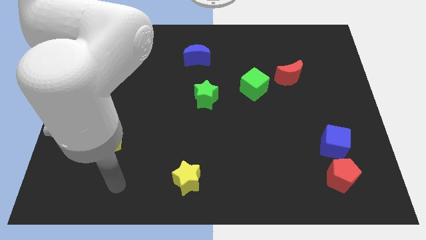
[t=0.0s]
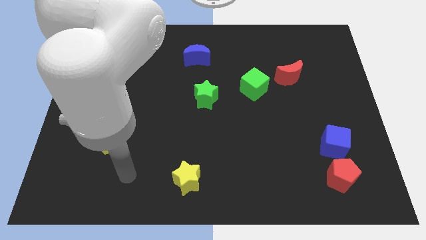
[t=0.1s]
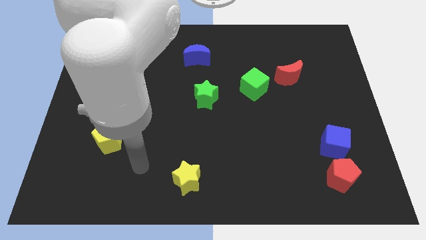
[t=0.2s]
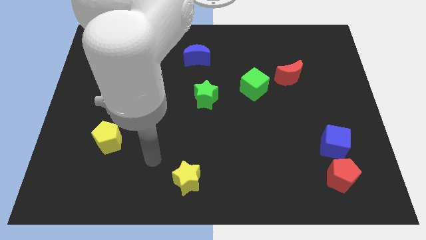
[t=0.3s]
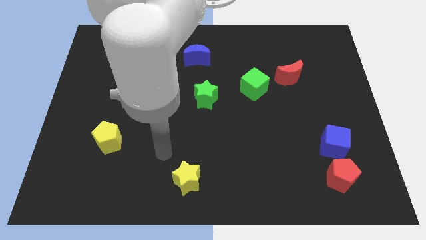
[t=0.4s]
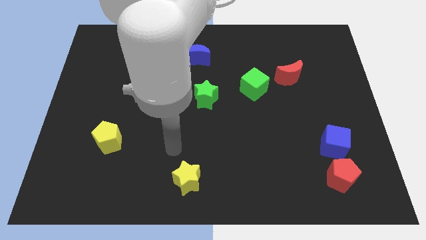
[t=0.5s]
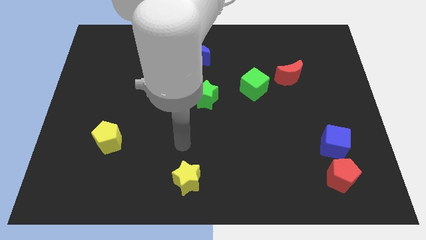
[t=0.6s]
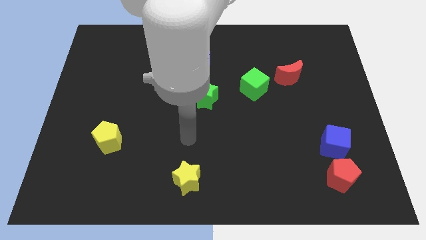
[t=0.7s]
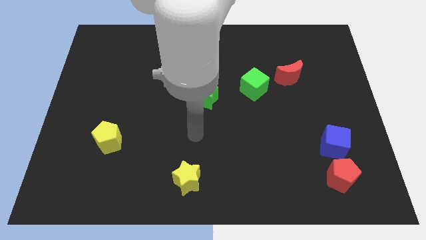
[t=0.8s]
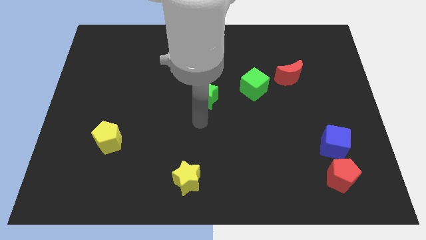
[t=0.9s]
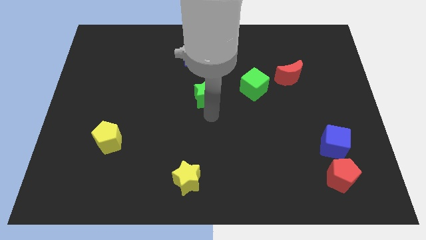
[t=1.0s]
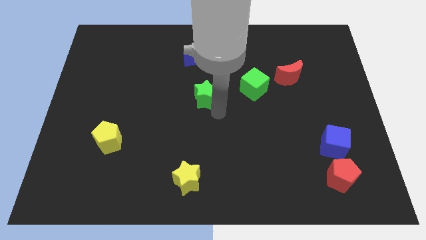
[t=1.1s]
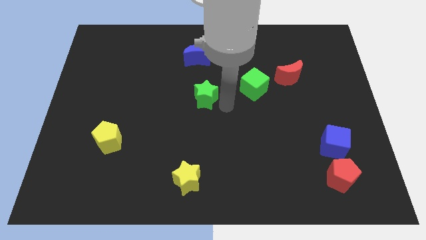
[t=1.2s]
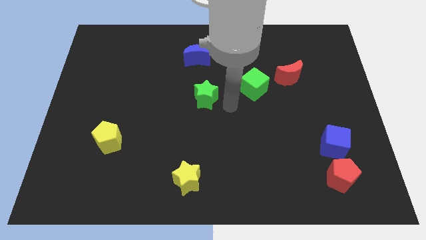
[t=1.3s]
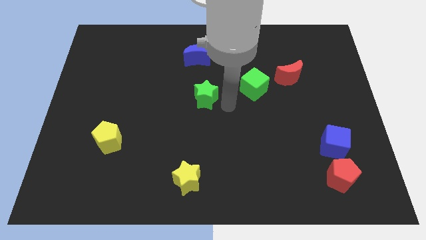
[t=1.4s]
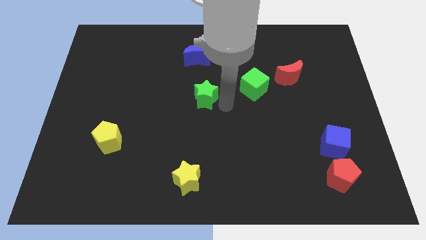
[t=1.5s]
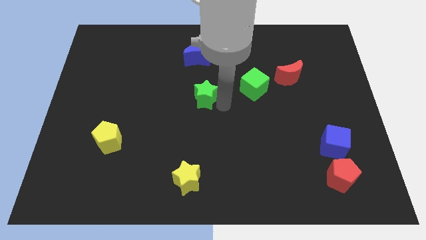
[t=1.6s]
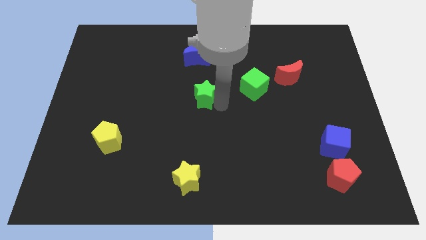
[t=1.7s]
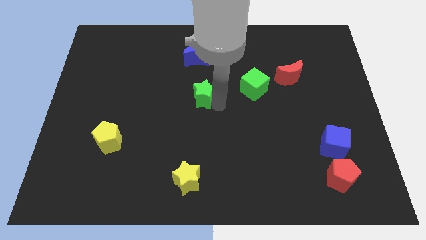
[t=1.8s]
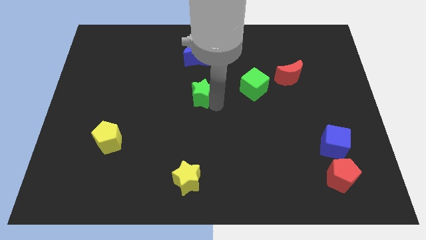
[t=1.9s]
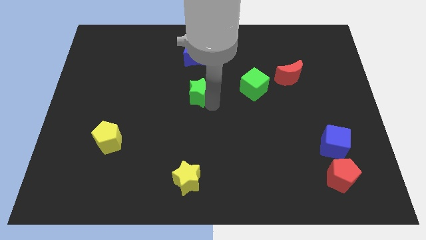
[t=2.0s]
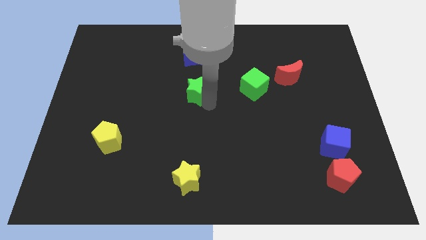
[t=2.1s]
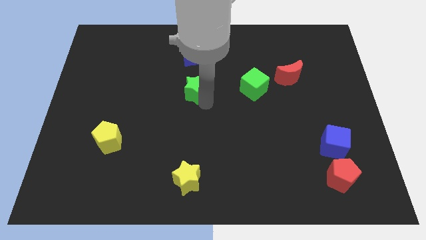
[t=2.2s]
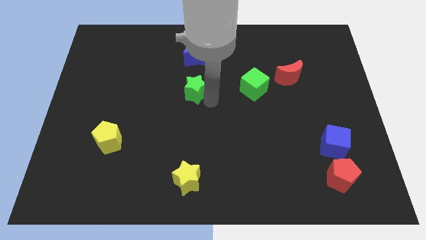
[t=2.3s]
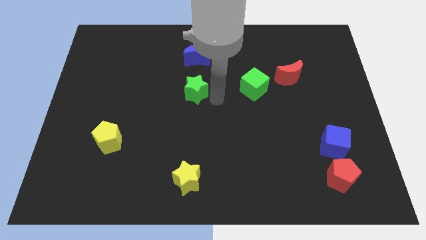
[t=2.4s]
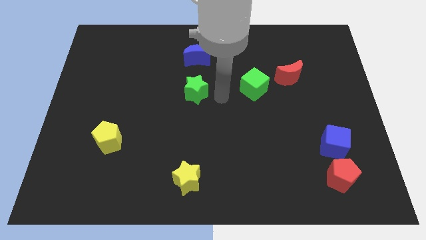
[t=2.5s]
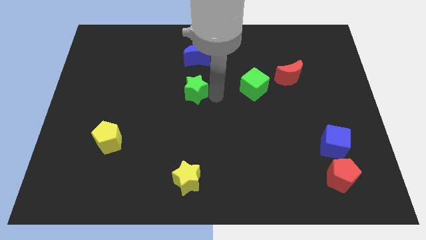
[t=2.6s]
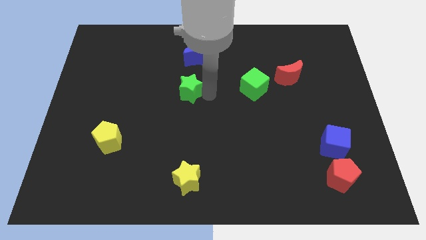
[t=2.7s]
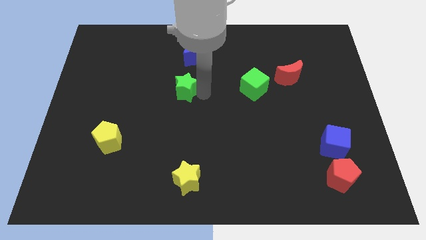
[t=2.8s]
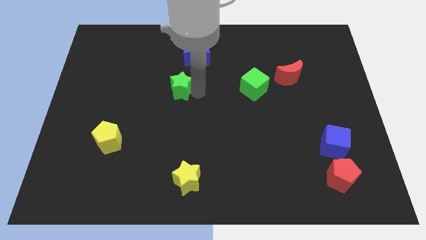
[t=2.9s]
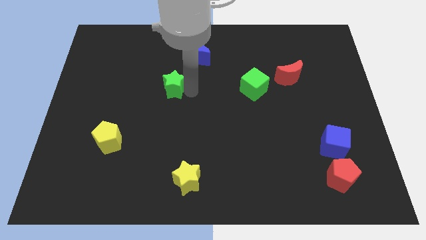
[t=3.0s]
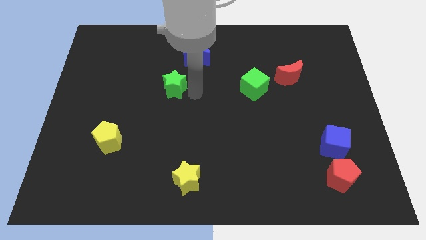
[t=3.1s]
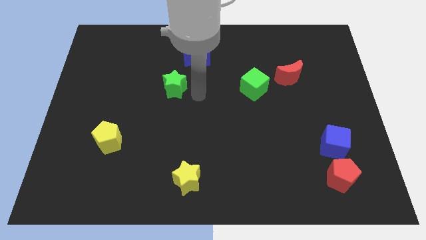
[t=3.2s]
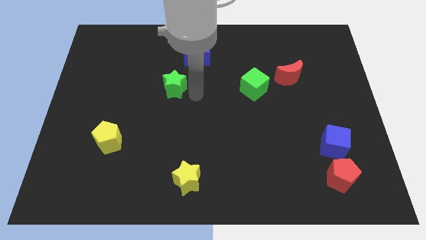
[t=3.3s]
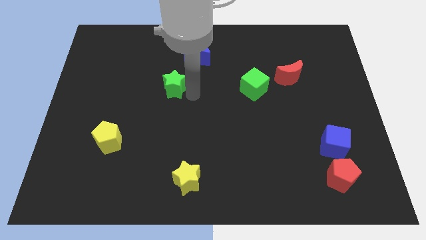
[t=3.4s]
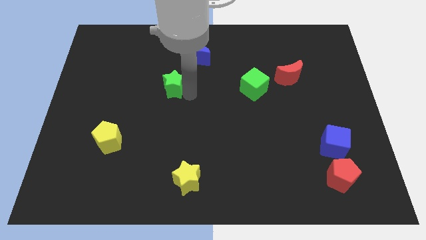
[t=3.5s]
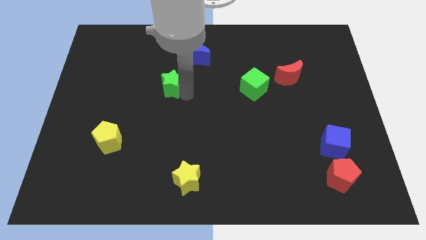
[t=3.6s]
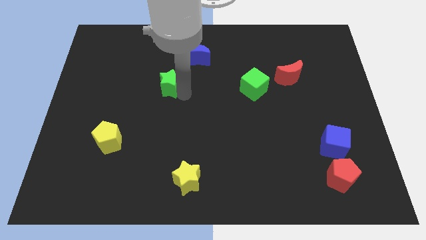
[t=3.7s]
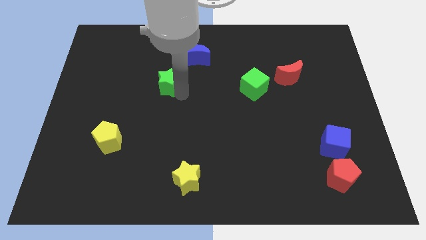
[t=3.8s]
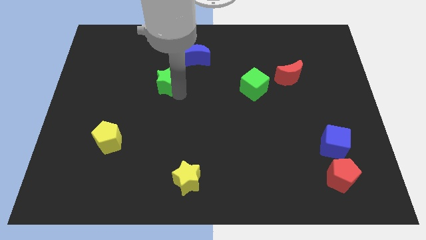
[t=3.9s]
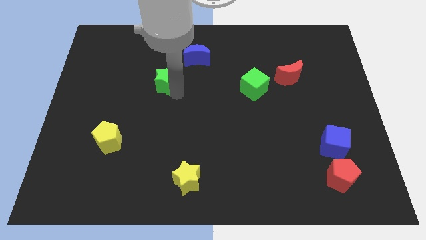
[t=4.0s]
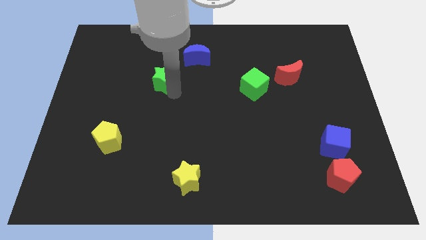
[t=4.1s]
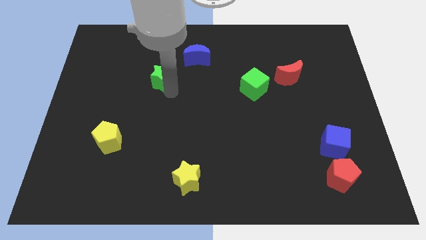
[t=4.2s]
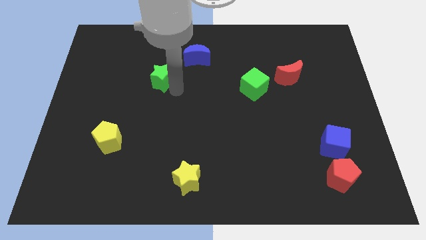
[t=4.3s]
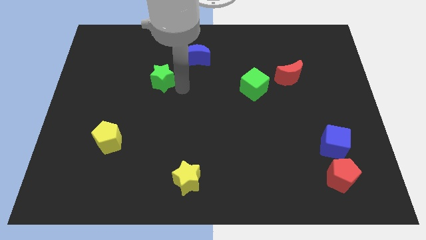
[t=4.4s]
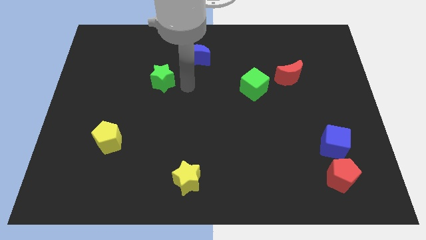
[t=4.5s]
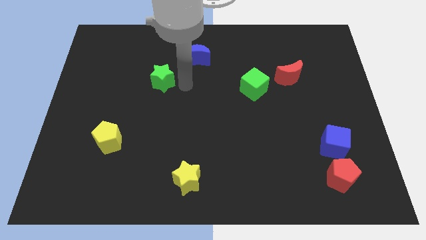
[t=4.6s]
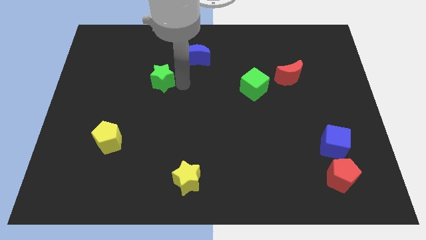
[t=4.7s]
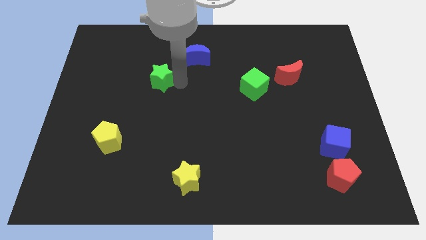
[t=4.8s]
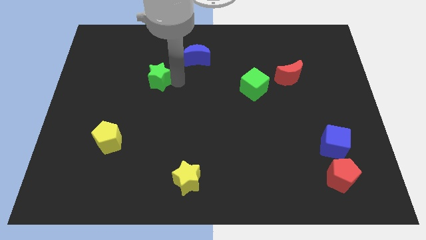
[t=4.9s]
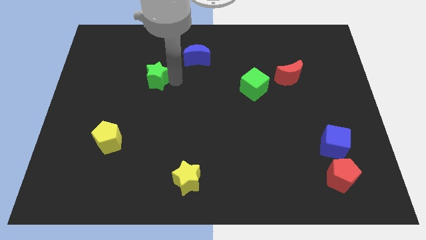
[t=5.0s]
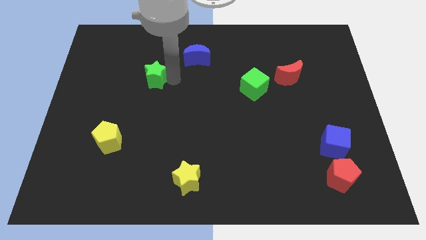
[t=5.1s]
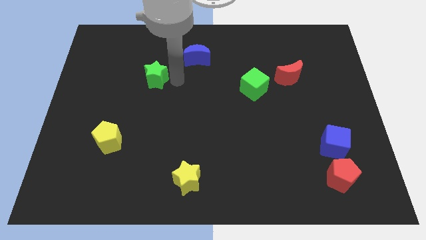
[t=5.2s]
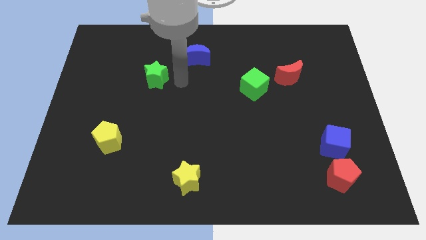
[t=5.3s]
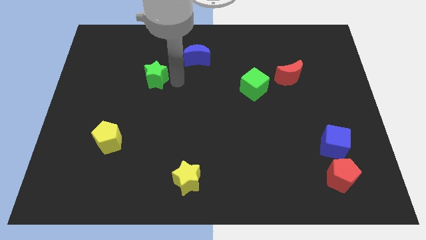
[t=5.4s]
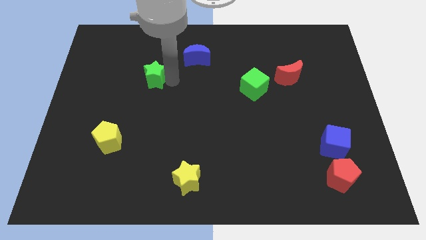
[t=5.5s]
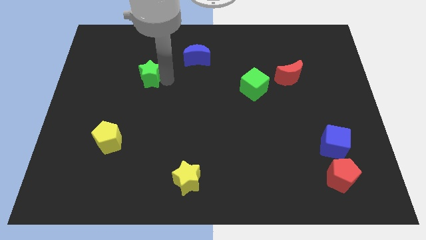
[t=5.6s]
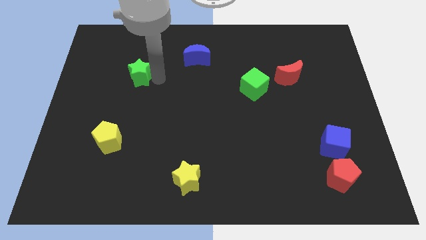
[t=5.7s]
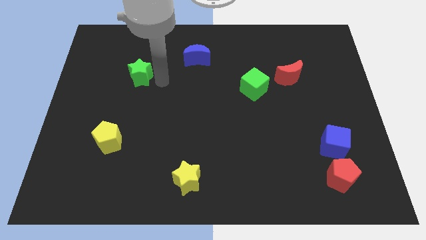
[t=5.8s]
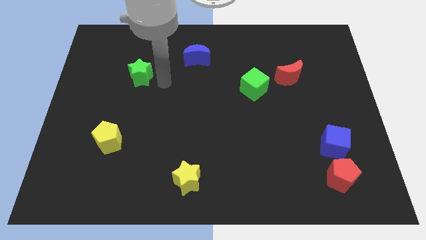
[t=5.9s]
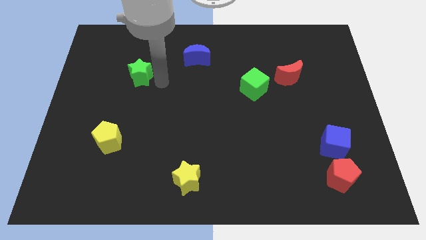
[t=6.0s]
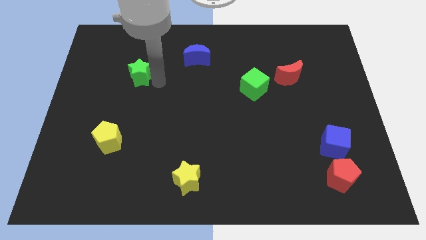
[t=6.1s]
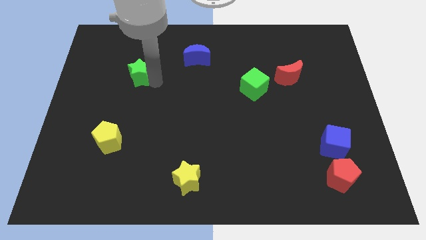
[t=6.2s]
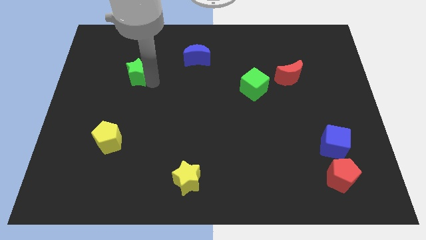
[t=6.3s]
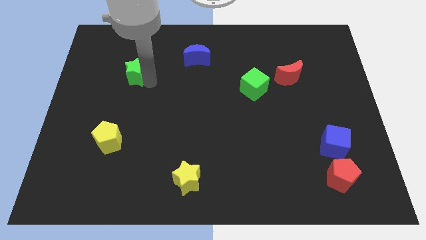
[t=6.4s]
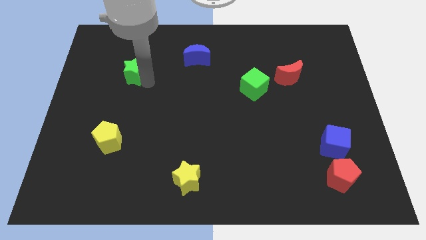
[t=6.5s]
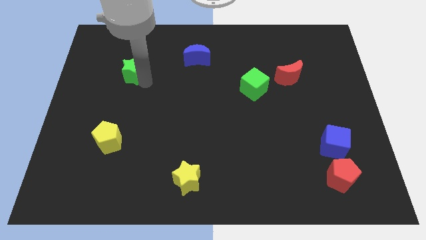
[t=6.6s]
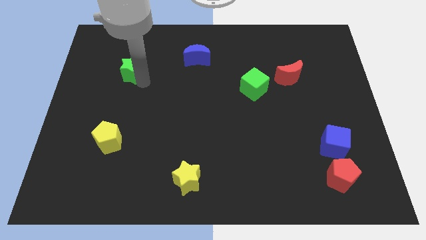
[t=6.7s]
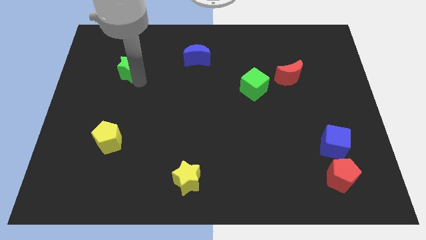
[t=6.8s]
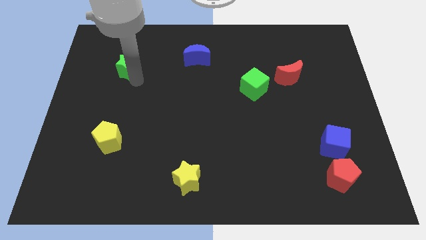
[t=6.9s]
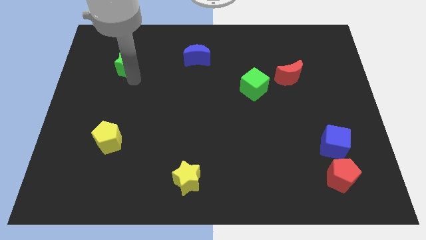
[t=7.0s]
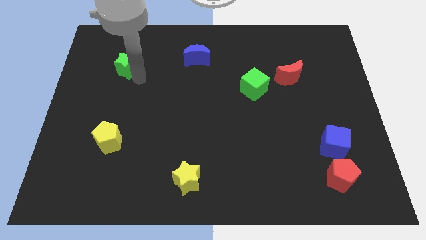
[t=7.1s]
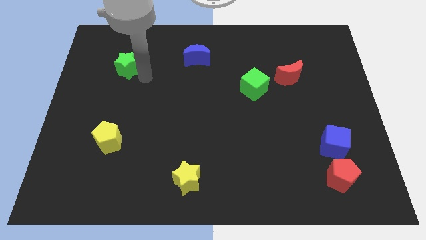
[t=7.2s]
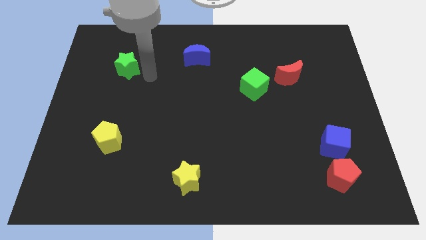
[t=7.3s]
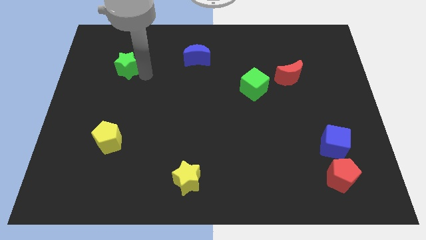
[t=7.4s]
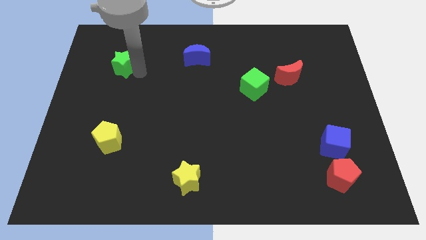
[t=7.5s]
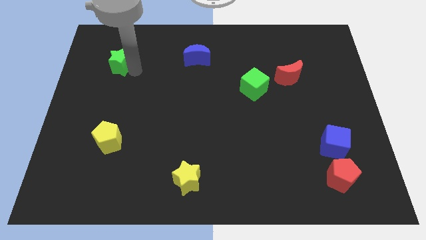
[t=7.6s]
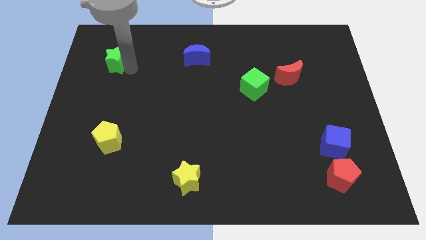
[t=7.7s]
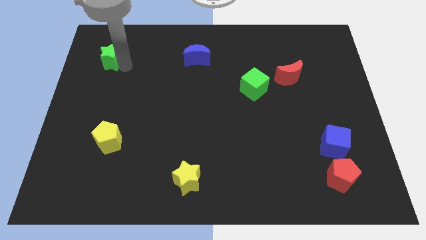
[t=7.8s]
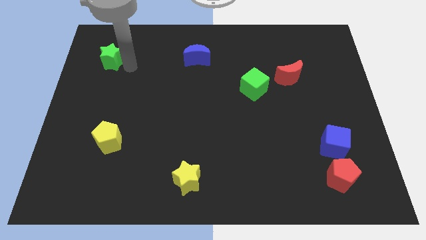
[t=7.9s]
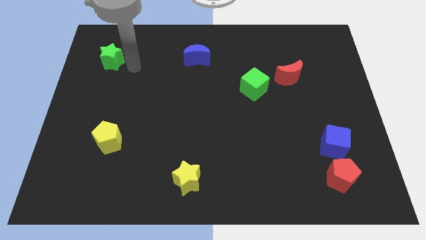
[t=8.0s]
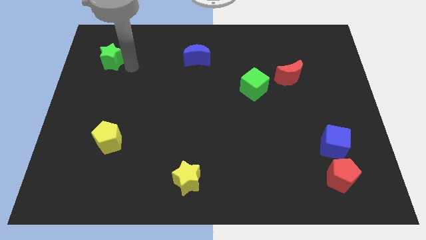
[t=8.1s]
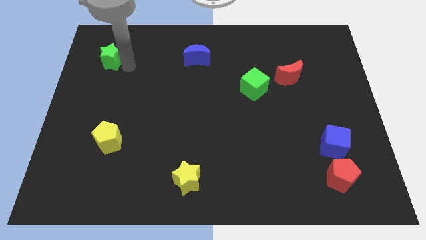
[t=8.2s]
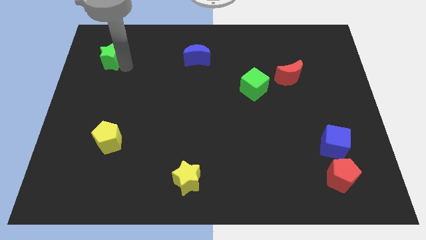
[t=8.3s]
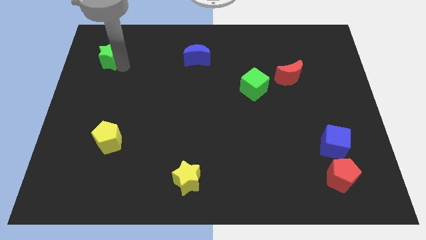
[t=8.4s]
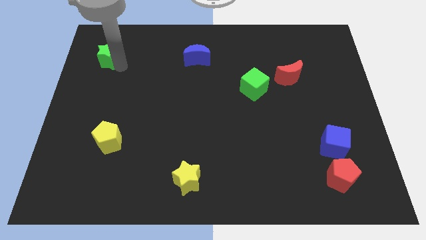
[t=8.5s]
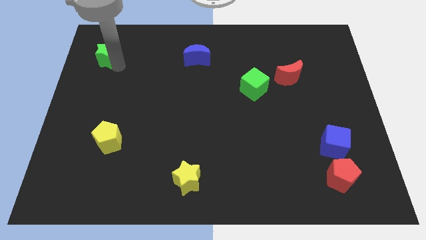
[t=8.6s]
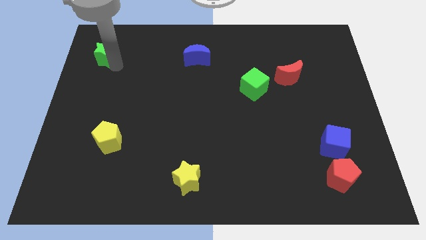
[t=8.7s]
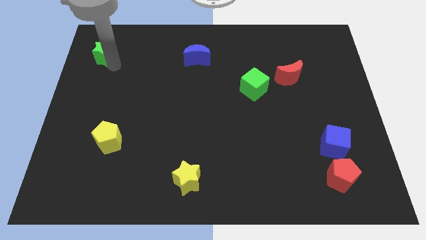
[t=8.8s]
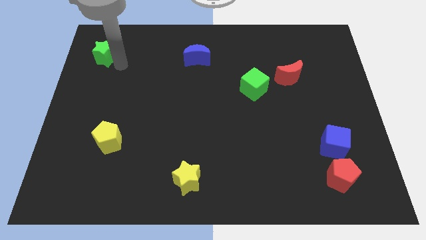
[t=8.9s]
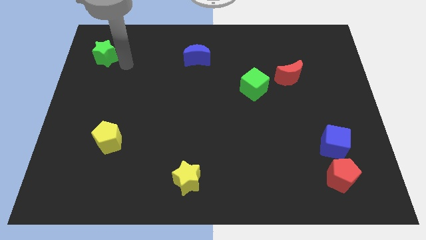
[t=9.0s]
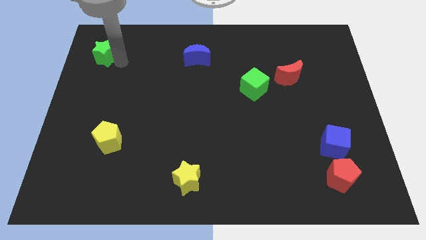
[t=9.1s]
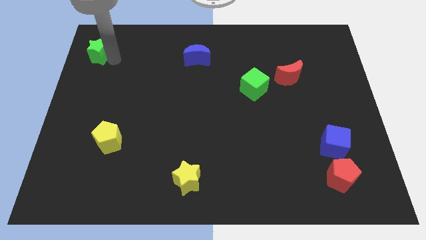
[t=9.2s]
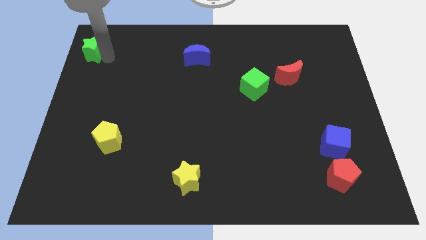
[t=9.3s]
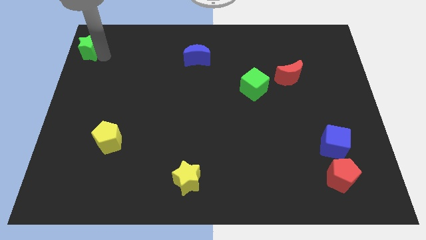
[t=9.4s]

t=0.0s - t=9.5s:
move the green star to the top left corner
